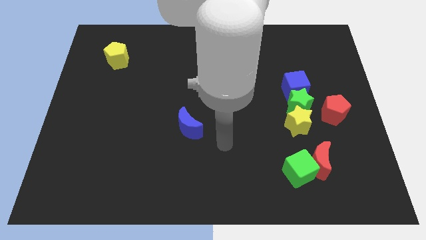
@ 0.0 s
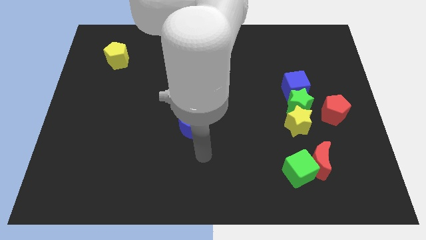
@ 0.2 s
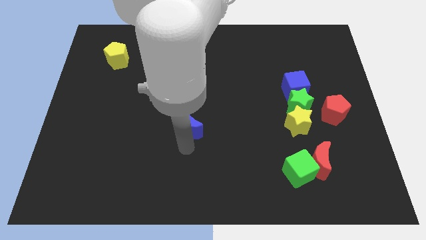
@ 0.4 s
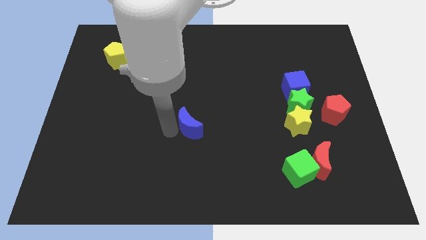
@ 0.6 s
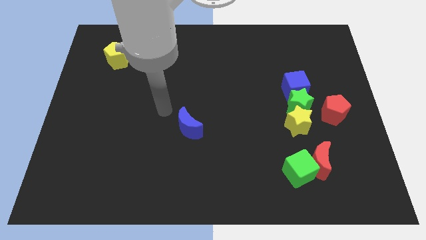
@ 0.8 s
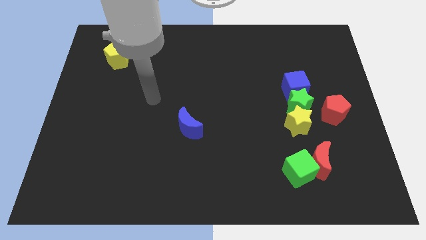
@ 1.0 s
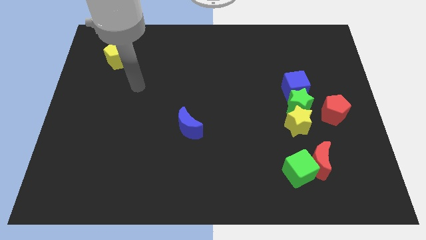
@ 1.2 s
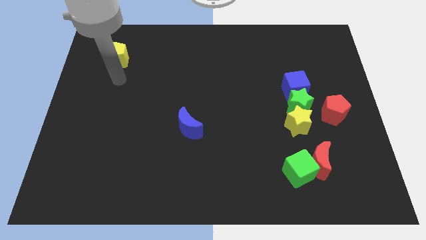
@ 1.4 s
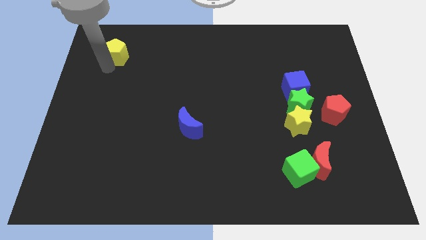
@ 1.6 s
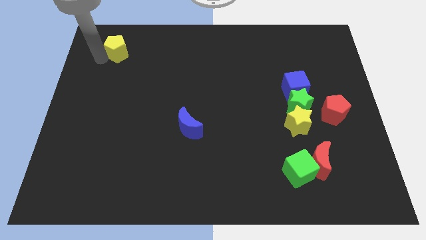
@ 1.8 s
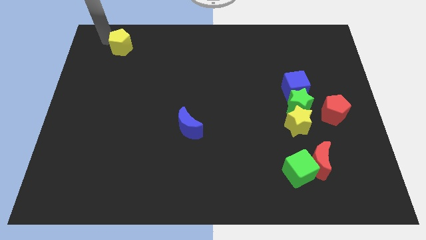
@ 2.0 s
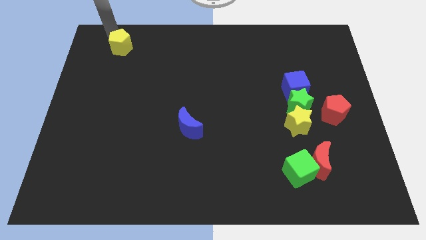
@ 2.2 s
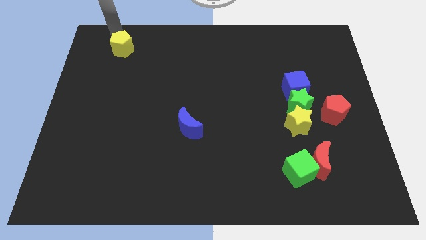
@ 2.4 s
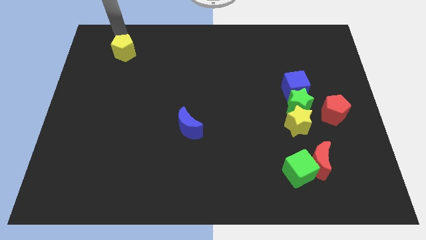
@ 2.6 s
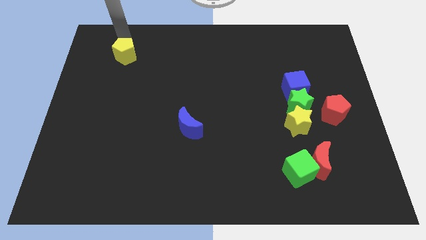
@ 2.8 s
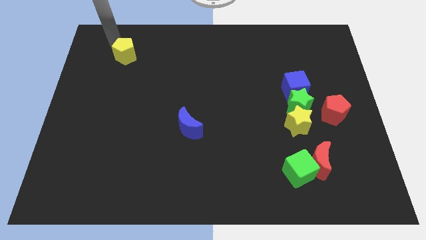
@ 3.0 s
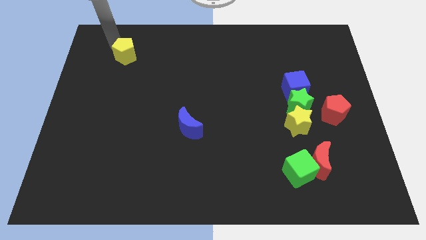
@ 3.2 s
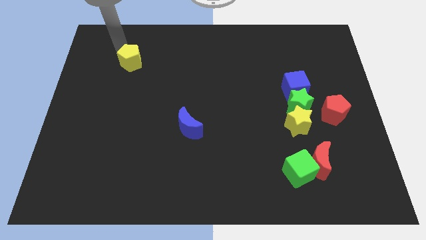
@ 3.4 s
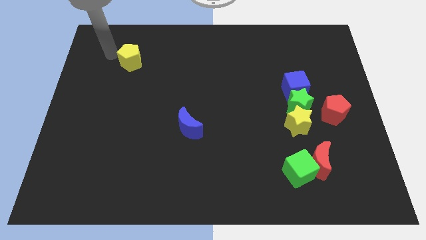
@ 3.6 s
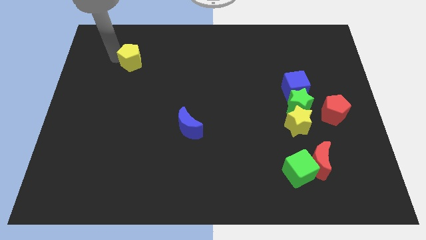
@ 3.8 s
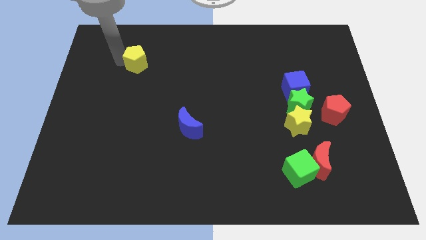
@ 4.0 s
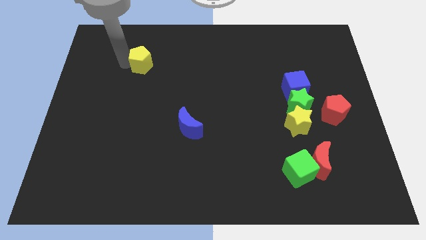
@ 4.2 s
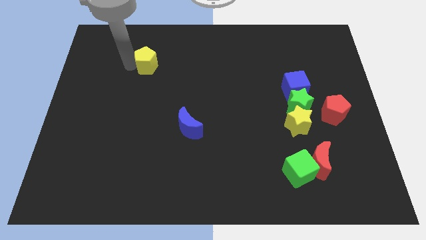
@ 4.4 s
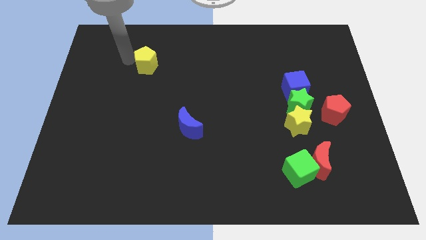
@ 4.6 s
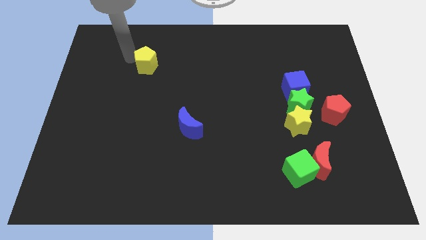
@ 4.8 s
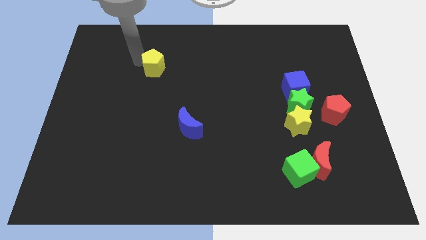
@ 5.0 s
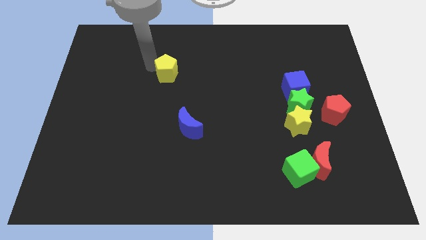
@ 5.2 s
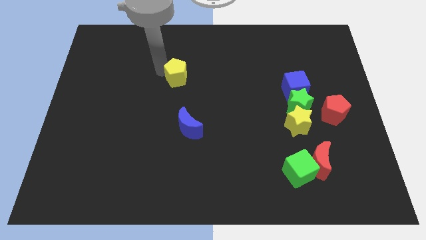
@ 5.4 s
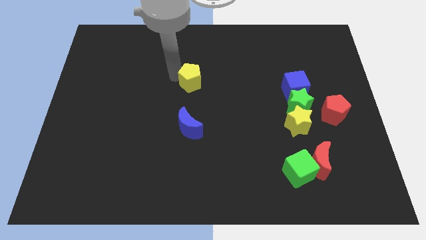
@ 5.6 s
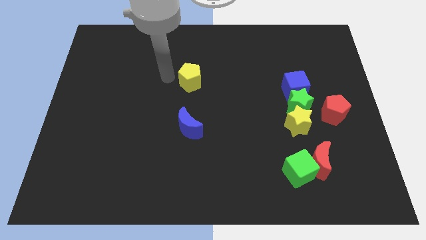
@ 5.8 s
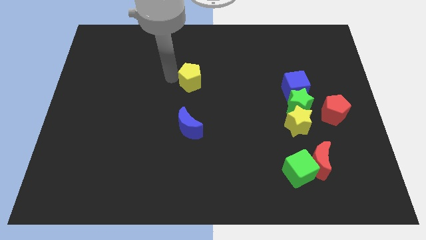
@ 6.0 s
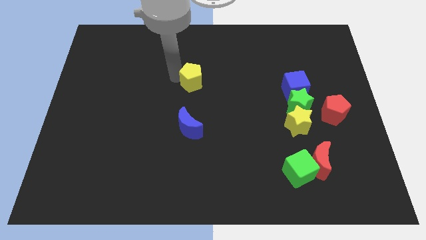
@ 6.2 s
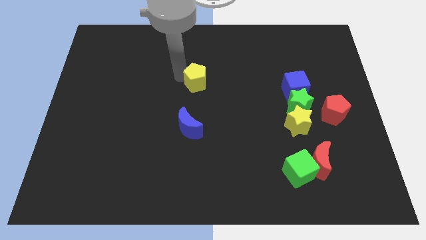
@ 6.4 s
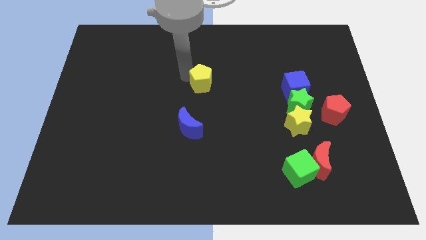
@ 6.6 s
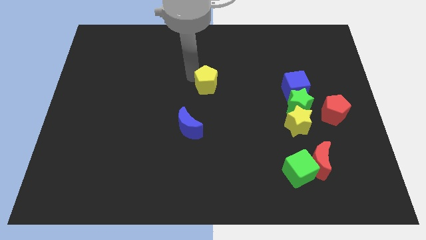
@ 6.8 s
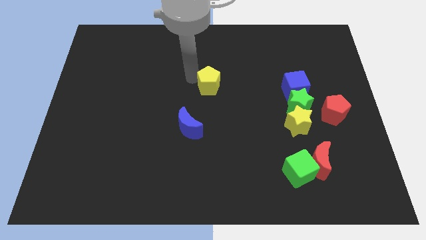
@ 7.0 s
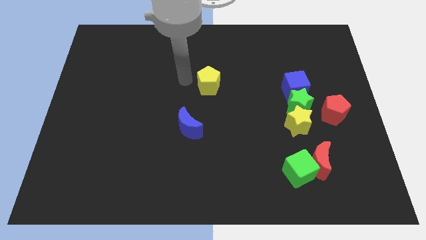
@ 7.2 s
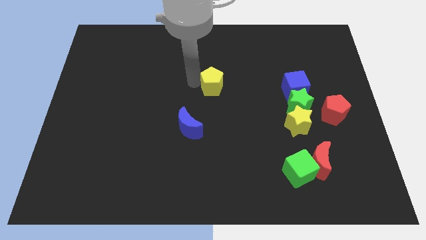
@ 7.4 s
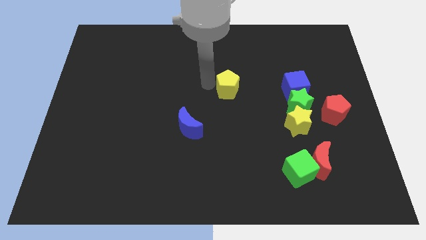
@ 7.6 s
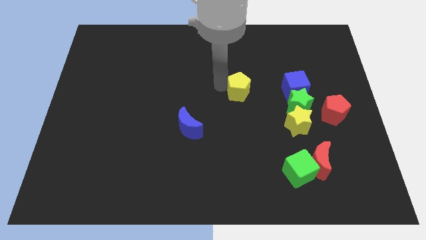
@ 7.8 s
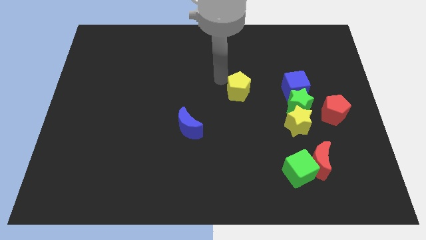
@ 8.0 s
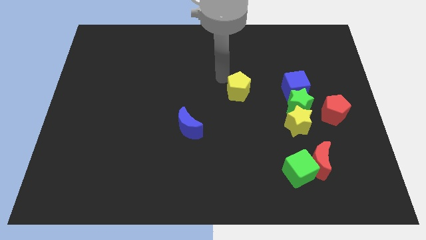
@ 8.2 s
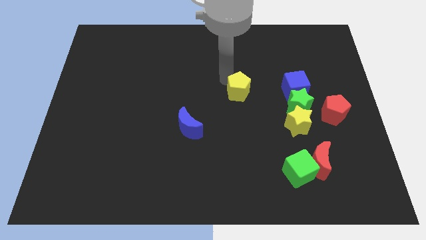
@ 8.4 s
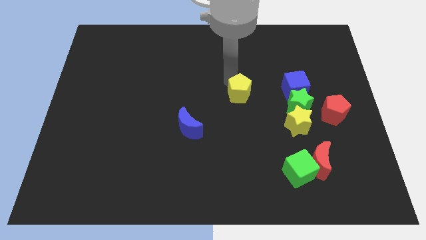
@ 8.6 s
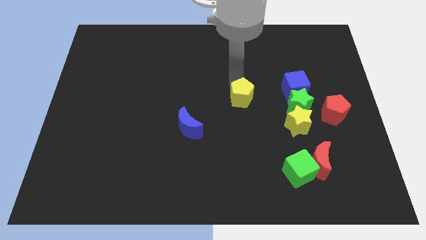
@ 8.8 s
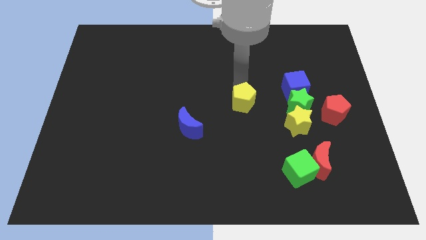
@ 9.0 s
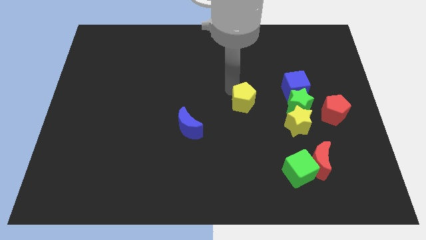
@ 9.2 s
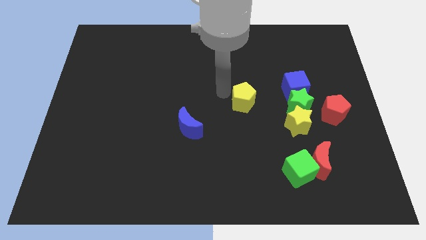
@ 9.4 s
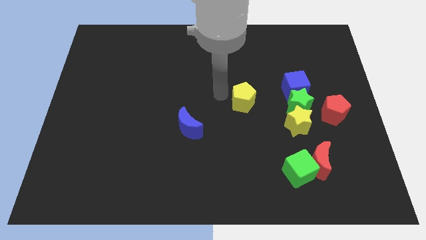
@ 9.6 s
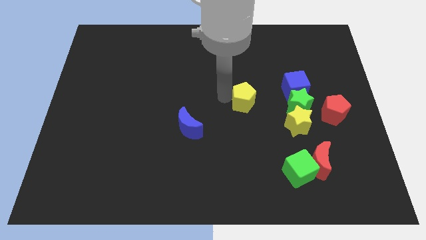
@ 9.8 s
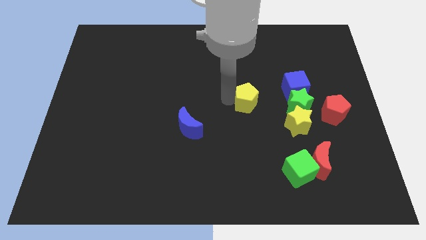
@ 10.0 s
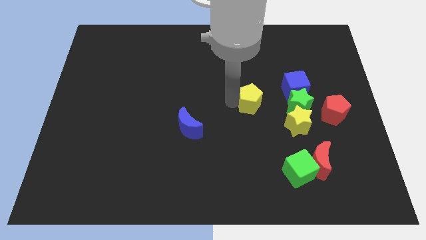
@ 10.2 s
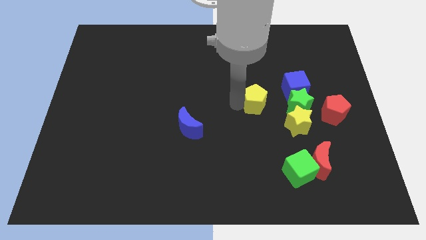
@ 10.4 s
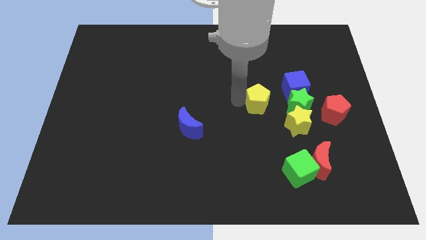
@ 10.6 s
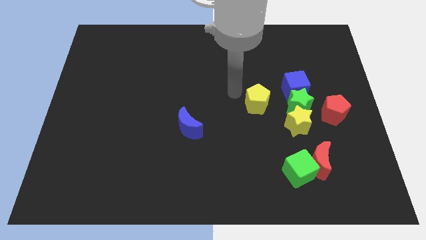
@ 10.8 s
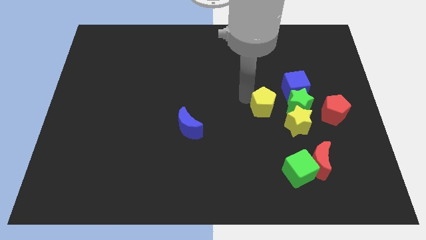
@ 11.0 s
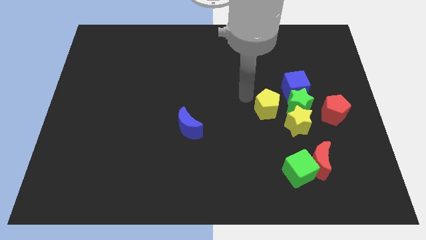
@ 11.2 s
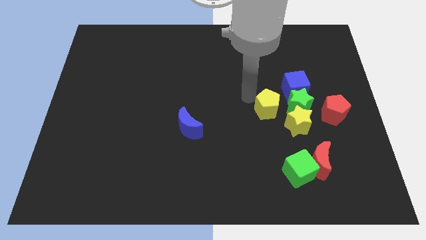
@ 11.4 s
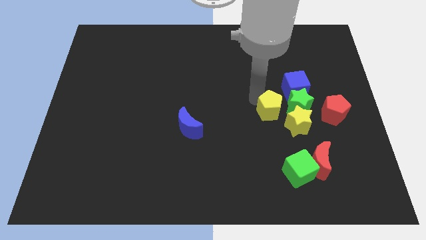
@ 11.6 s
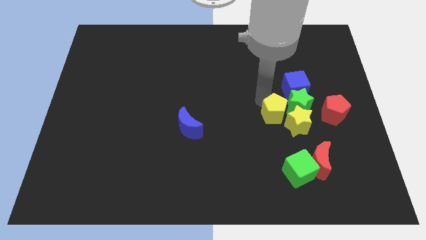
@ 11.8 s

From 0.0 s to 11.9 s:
put the yellow pentagon next to the yellow star

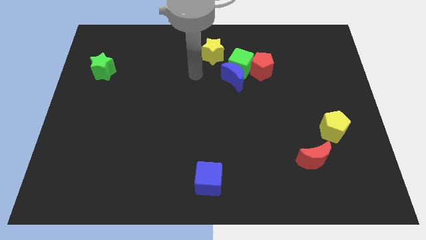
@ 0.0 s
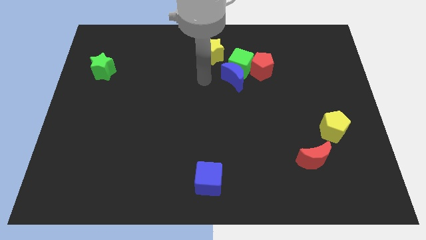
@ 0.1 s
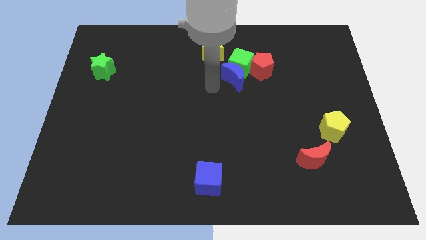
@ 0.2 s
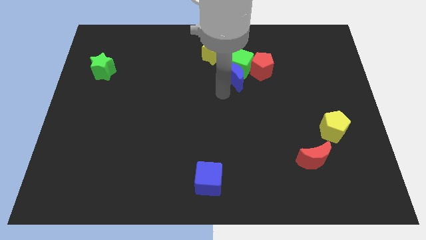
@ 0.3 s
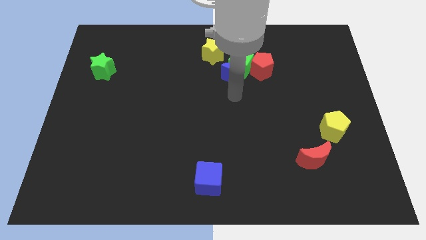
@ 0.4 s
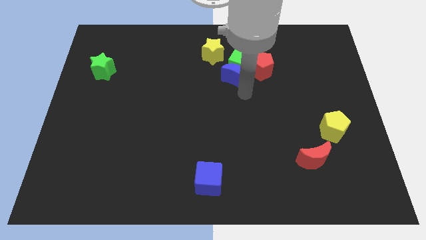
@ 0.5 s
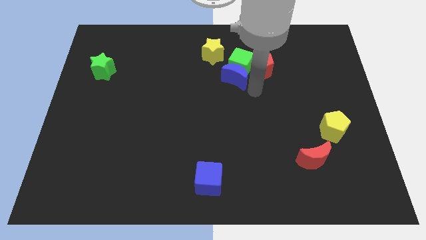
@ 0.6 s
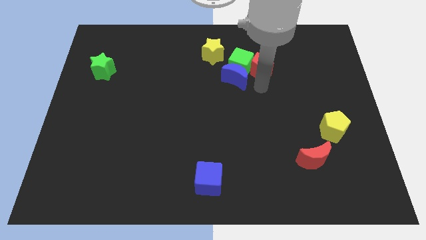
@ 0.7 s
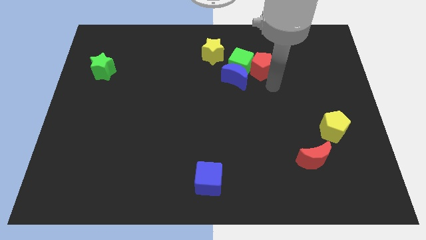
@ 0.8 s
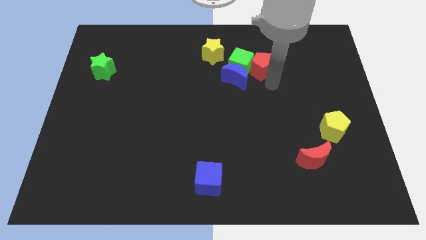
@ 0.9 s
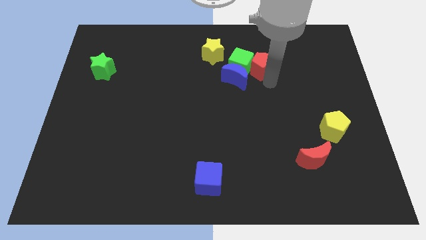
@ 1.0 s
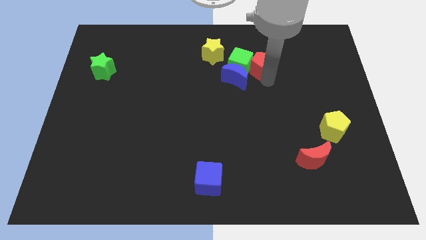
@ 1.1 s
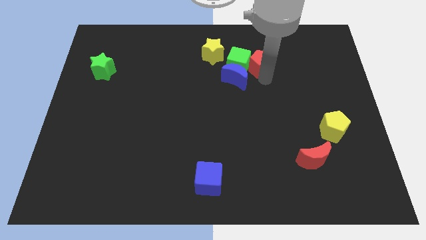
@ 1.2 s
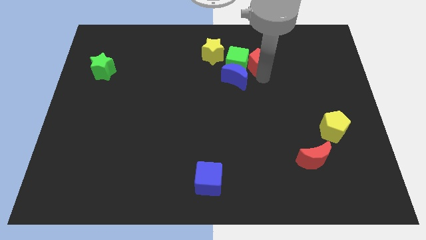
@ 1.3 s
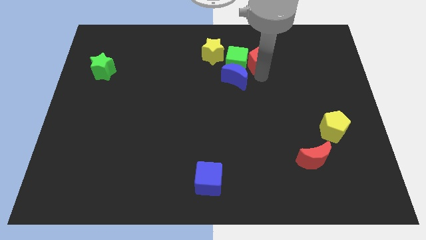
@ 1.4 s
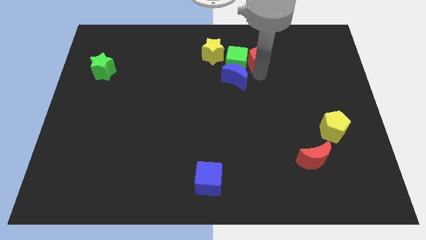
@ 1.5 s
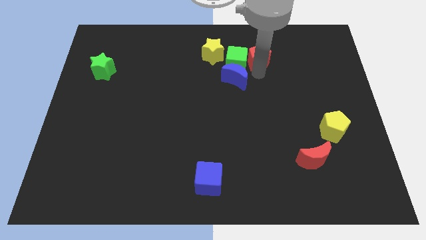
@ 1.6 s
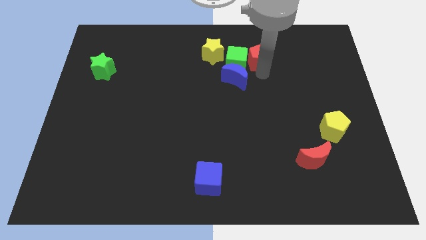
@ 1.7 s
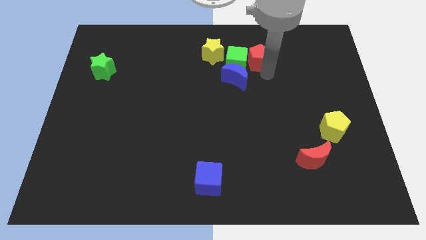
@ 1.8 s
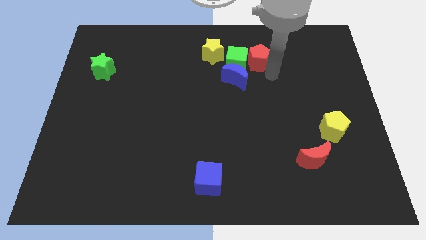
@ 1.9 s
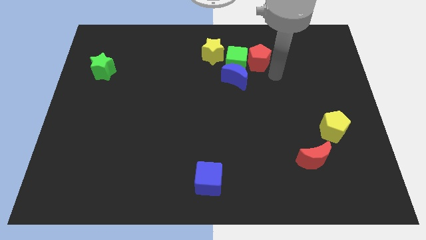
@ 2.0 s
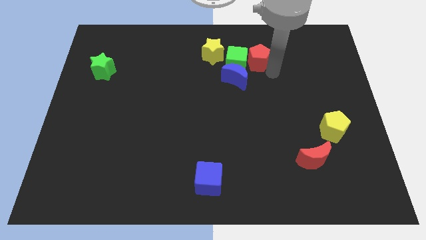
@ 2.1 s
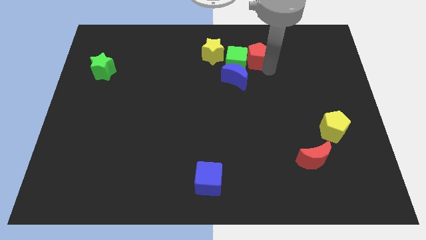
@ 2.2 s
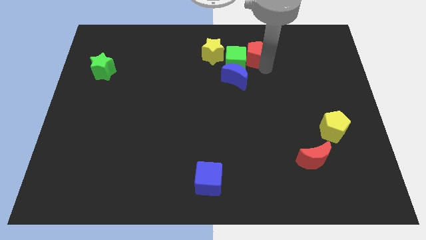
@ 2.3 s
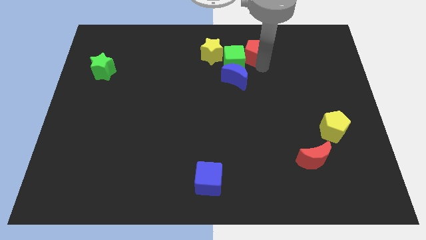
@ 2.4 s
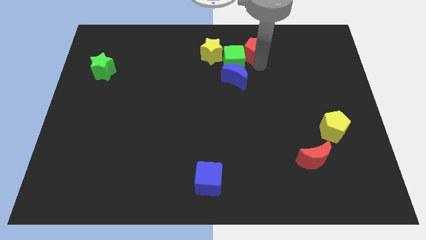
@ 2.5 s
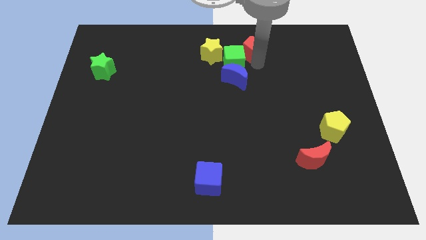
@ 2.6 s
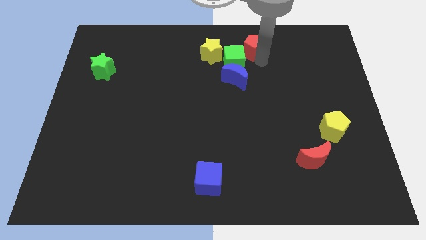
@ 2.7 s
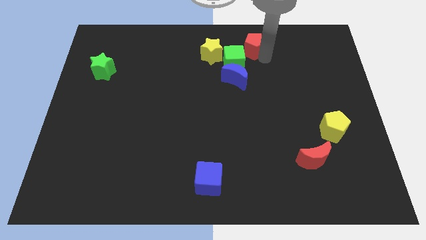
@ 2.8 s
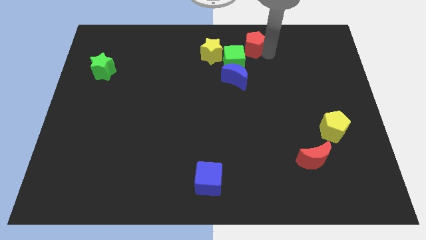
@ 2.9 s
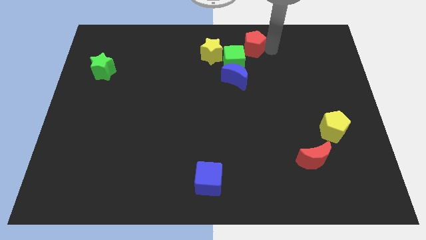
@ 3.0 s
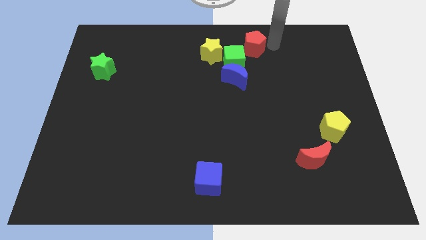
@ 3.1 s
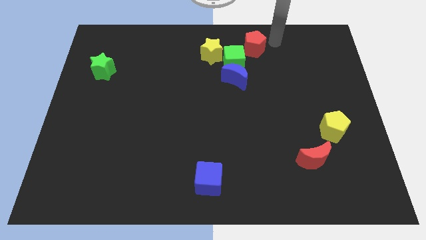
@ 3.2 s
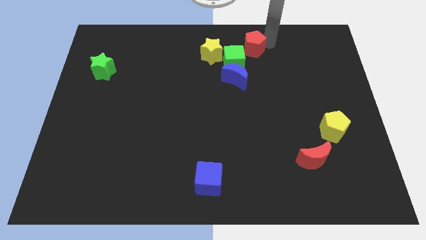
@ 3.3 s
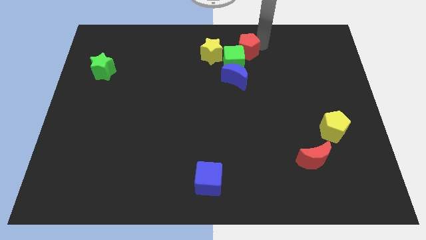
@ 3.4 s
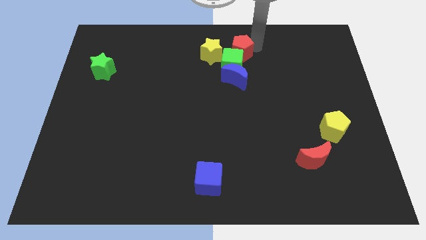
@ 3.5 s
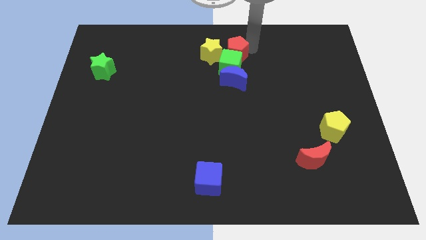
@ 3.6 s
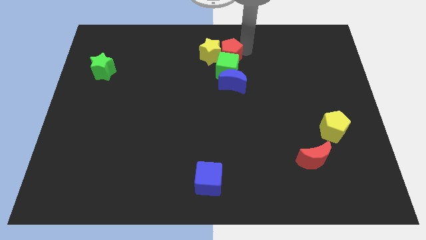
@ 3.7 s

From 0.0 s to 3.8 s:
put the red pentagon next to the yellow star
